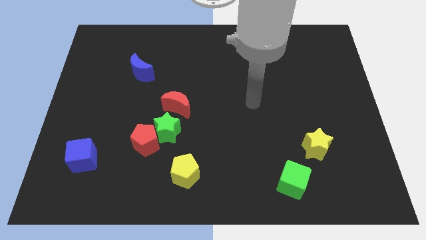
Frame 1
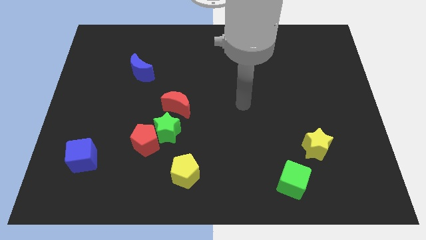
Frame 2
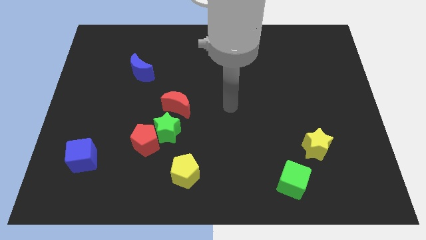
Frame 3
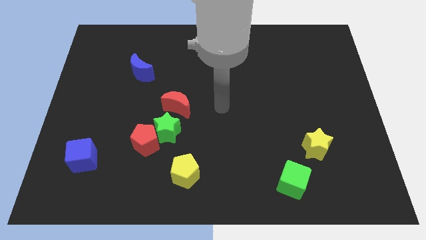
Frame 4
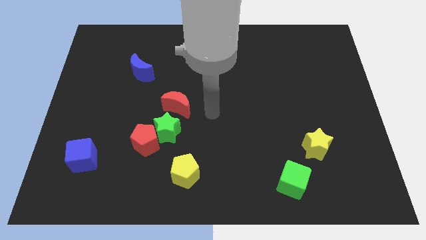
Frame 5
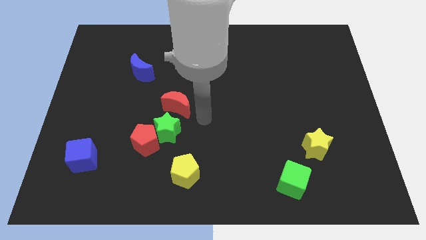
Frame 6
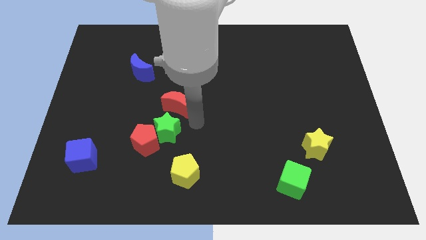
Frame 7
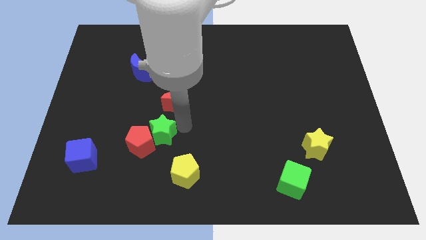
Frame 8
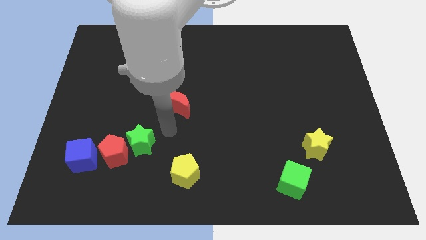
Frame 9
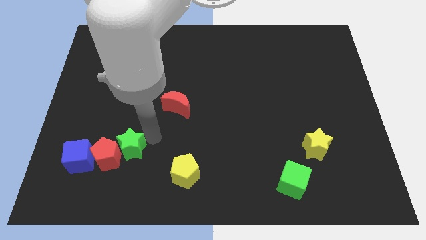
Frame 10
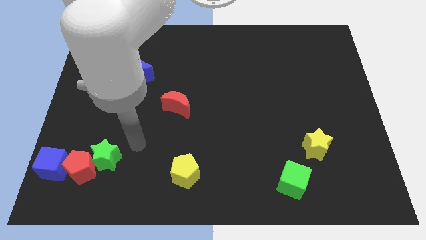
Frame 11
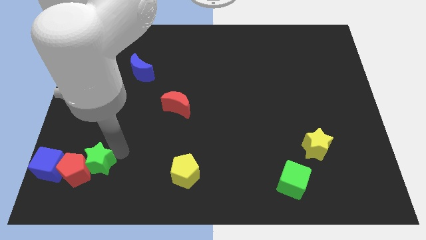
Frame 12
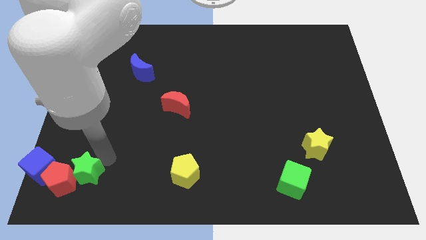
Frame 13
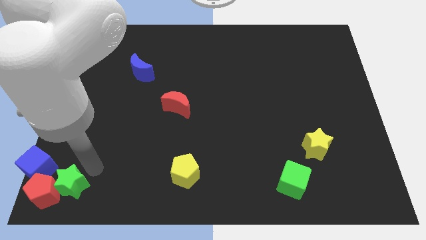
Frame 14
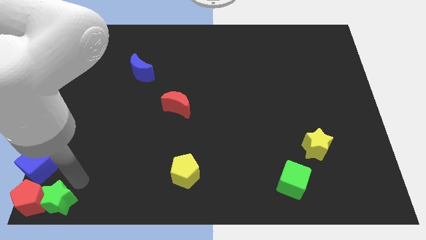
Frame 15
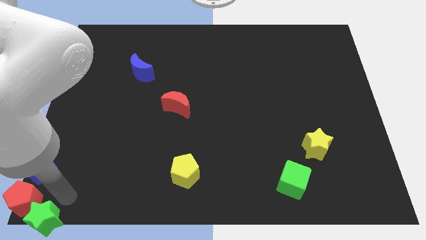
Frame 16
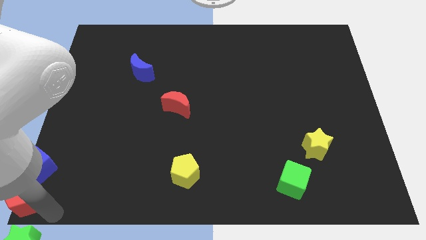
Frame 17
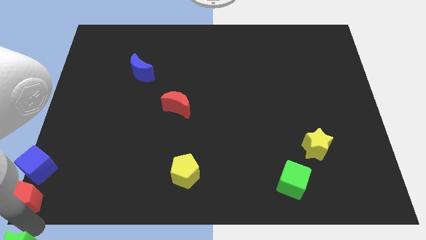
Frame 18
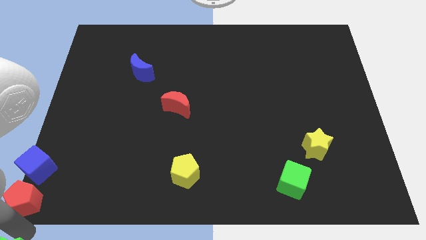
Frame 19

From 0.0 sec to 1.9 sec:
pull the red pentagon apart from the green star

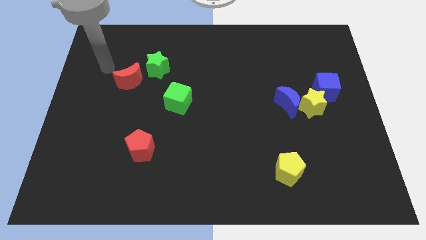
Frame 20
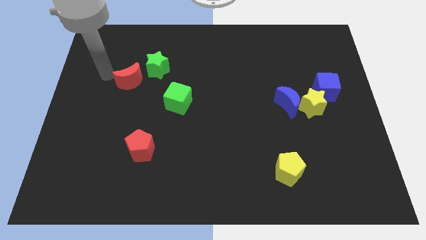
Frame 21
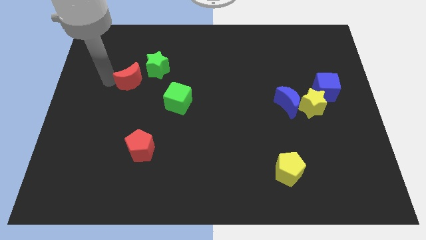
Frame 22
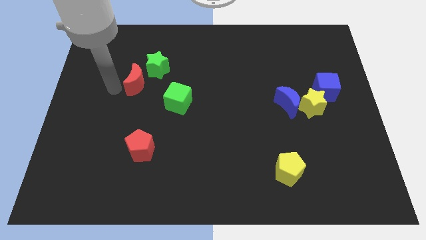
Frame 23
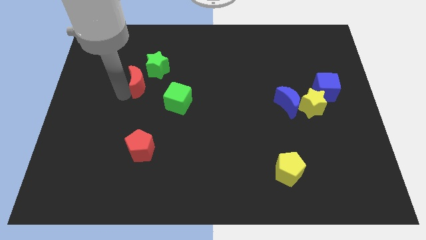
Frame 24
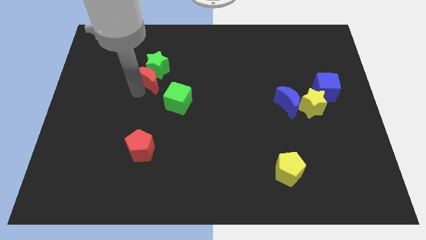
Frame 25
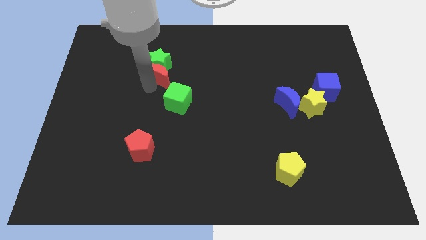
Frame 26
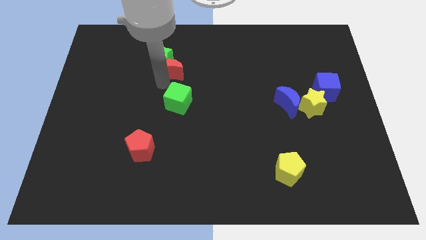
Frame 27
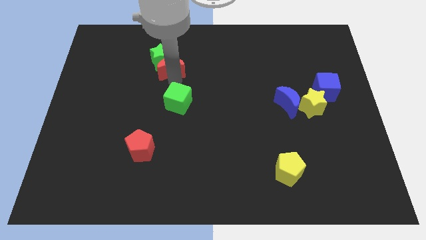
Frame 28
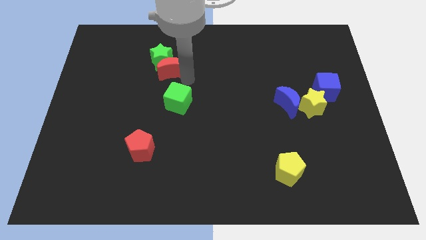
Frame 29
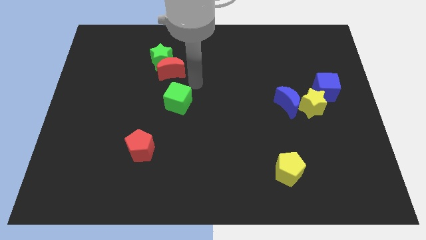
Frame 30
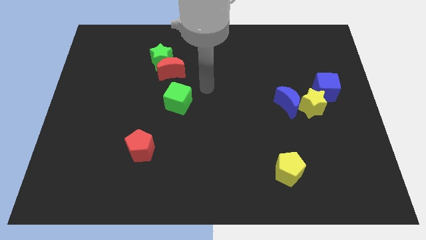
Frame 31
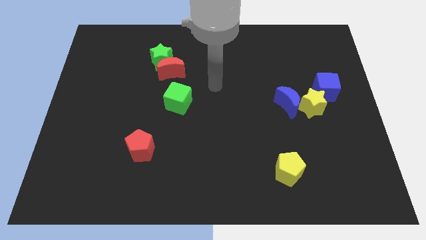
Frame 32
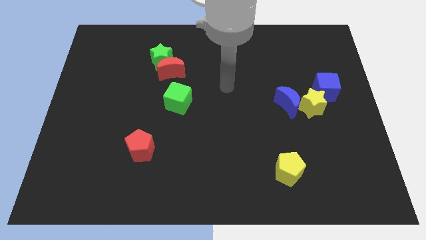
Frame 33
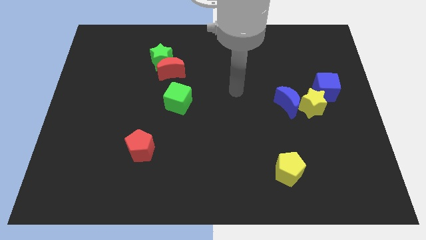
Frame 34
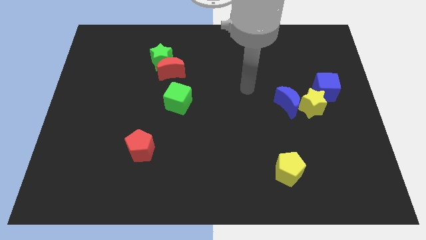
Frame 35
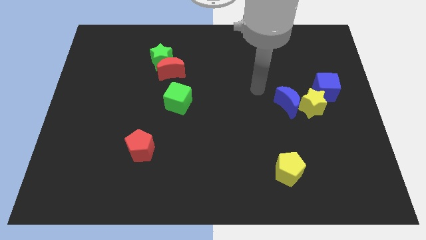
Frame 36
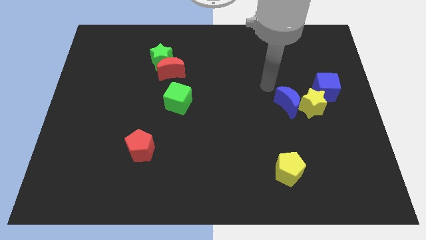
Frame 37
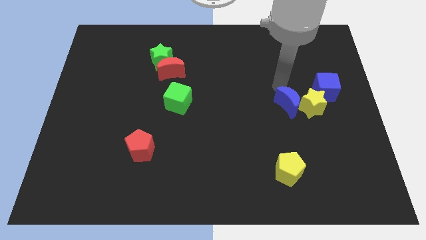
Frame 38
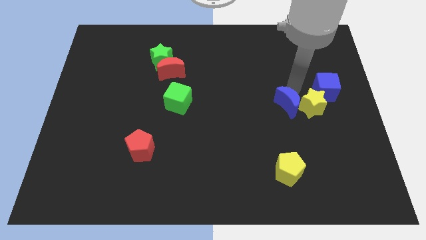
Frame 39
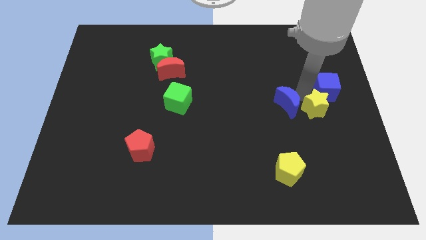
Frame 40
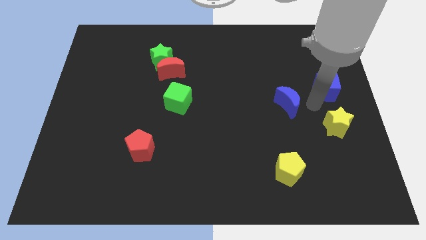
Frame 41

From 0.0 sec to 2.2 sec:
pull the blue moon apart from the yellow star

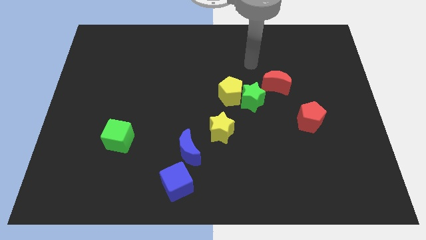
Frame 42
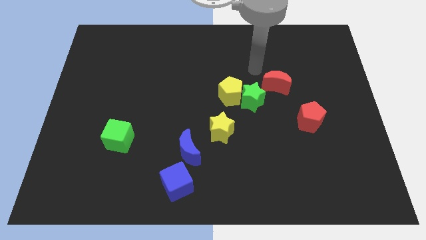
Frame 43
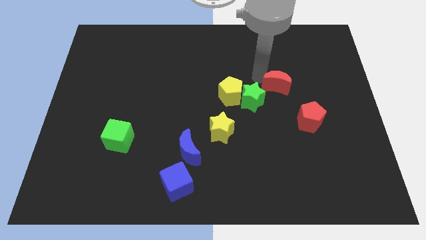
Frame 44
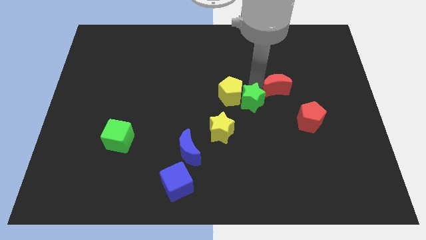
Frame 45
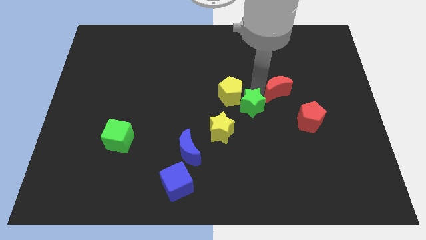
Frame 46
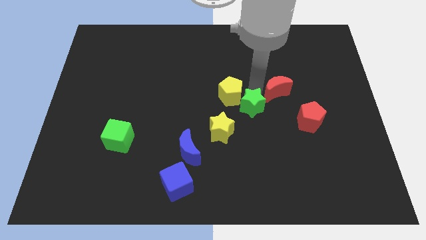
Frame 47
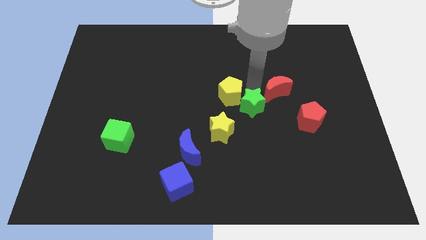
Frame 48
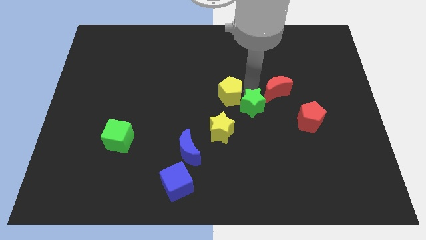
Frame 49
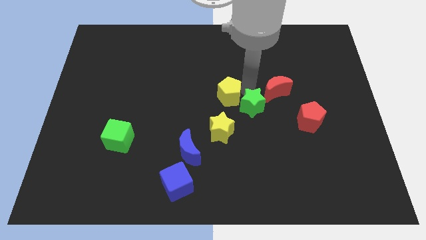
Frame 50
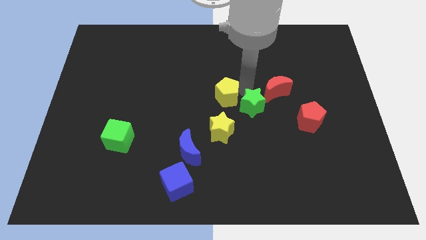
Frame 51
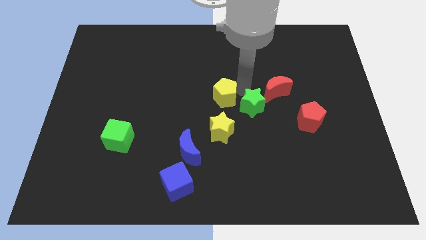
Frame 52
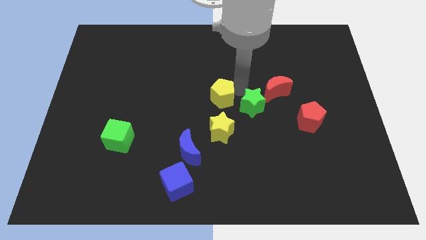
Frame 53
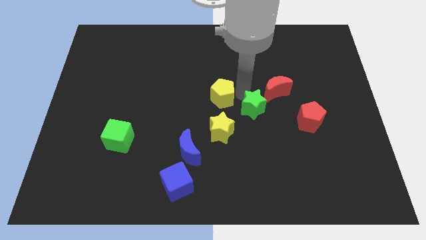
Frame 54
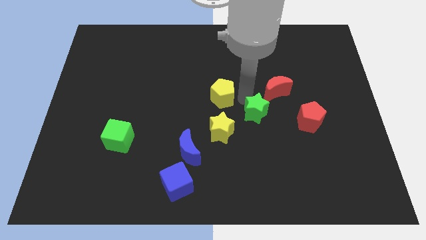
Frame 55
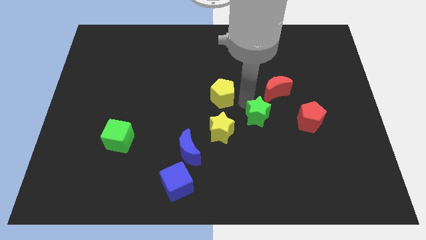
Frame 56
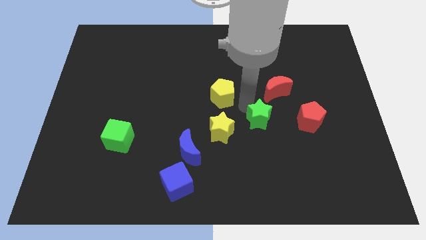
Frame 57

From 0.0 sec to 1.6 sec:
pull the yellow pentagon apart from the green star

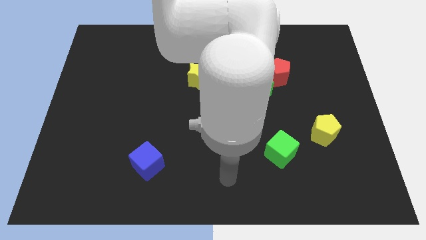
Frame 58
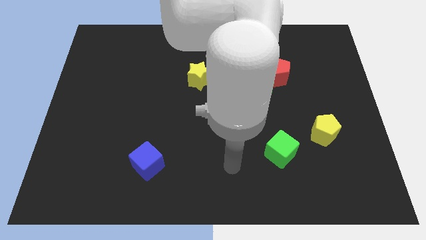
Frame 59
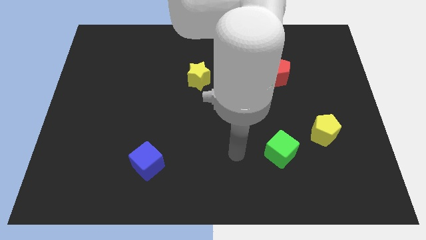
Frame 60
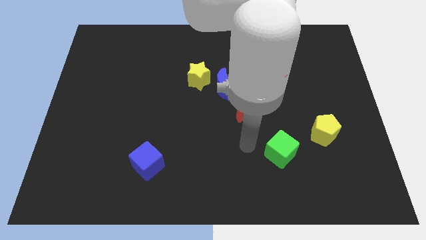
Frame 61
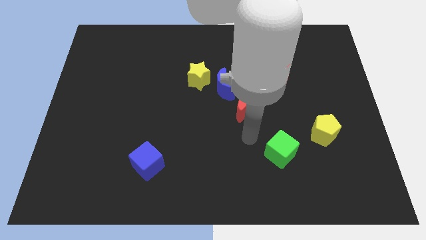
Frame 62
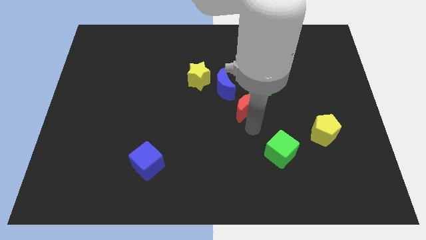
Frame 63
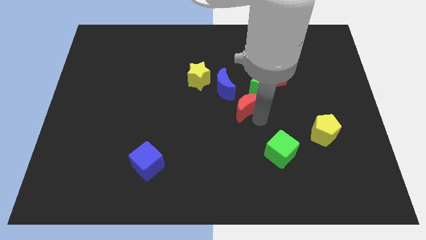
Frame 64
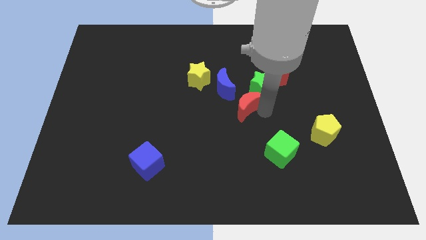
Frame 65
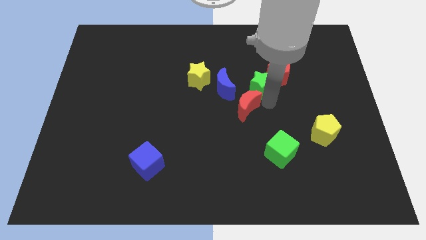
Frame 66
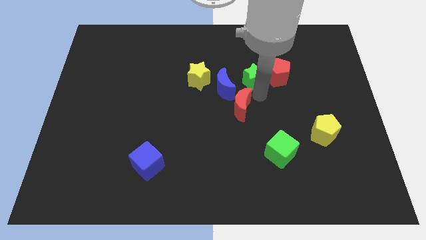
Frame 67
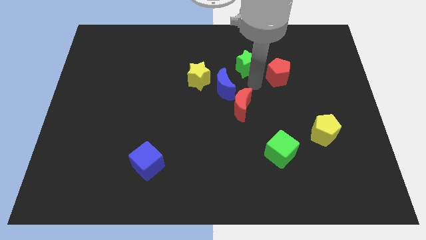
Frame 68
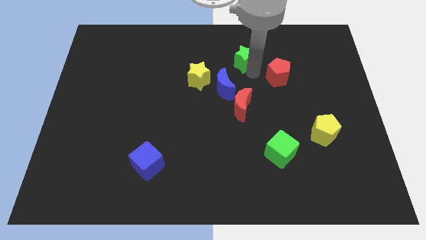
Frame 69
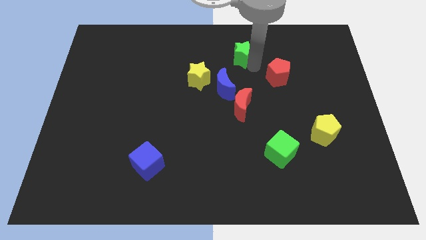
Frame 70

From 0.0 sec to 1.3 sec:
separate the red pentagon from the green star

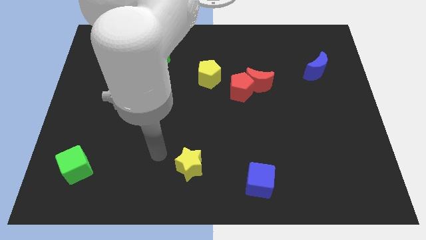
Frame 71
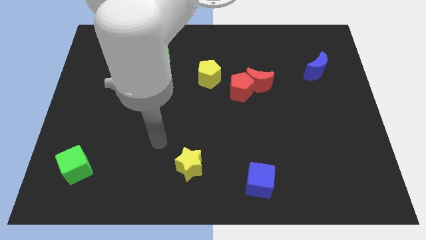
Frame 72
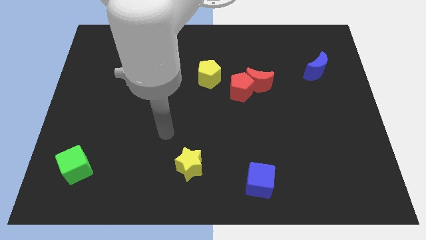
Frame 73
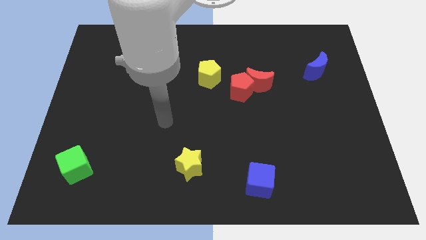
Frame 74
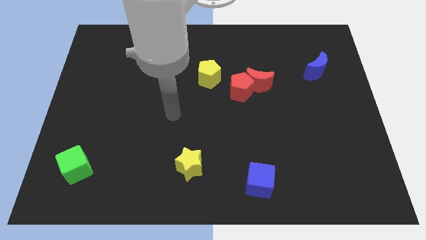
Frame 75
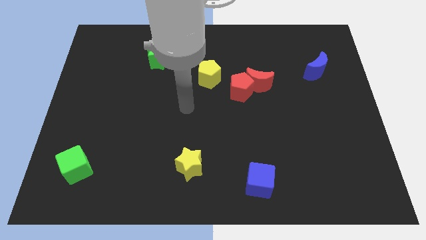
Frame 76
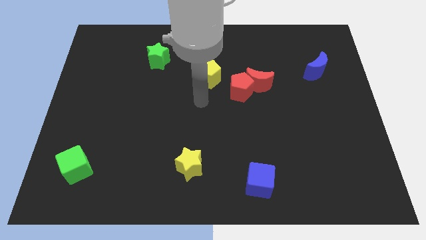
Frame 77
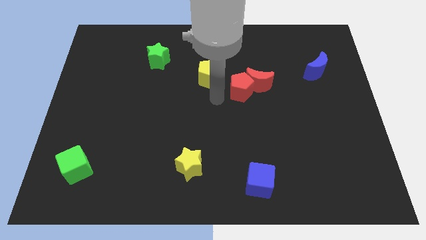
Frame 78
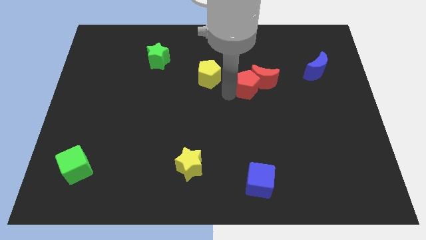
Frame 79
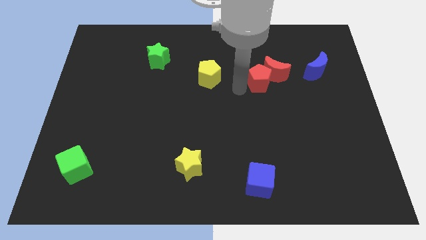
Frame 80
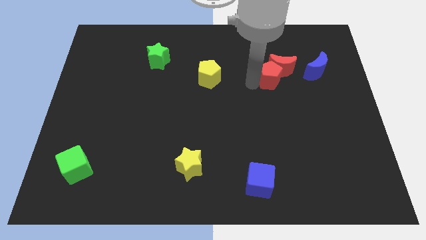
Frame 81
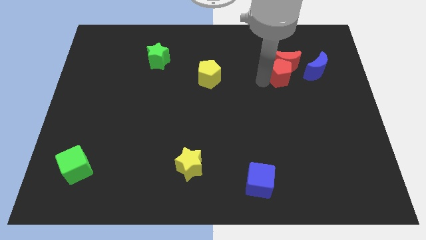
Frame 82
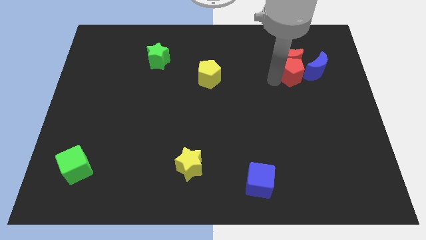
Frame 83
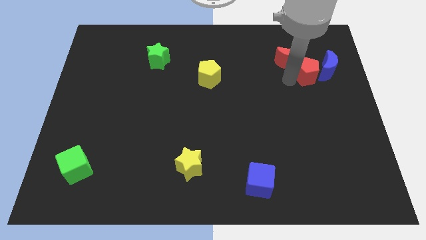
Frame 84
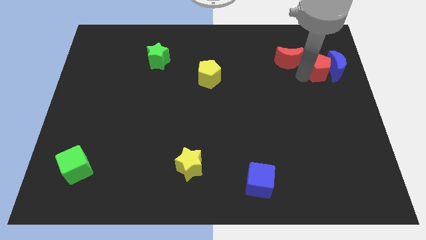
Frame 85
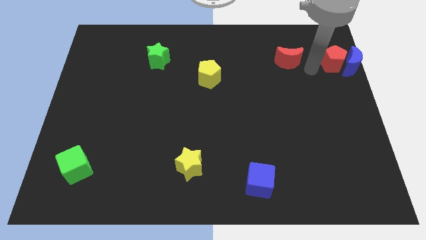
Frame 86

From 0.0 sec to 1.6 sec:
pull the red moon apart from the red pentagon

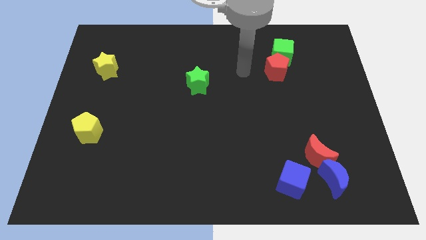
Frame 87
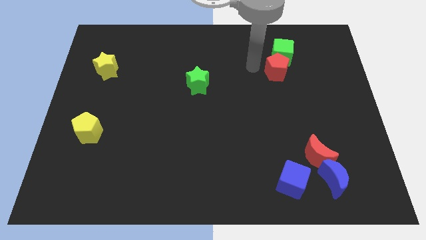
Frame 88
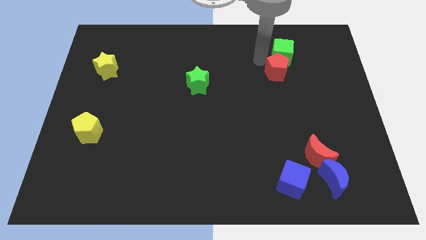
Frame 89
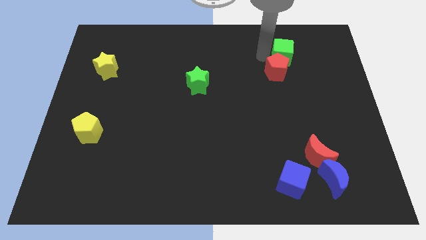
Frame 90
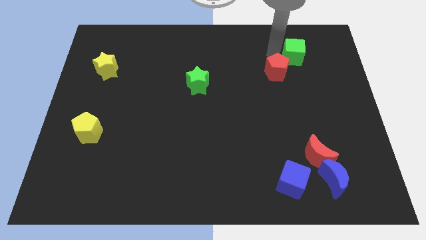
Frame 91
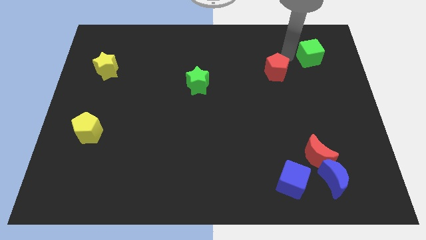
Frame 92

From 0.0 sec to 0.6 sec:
move the red pentagon away from the green cube
